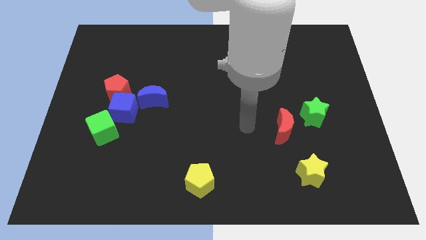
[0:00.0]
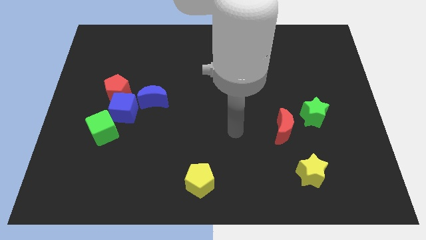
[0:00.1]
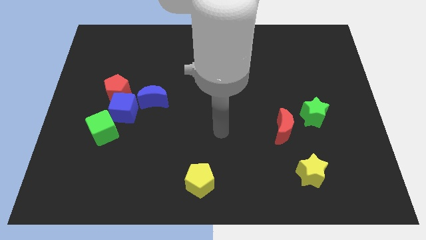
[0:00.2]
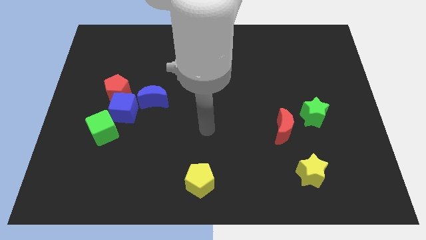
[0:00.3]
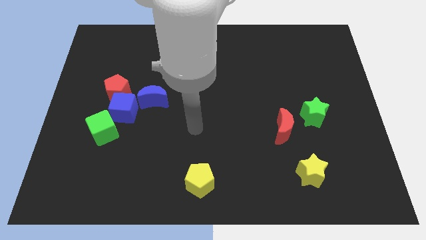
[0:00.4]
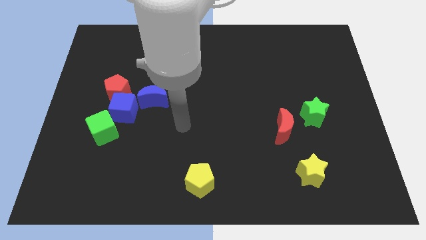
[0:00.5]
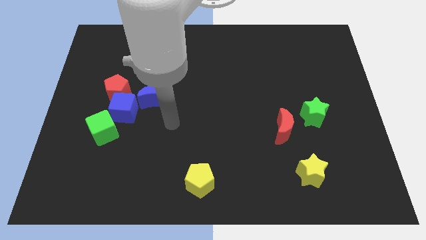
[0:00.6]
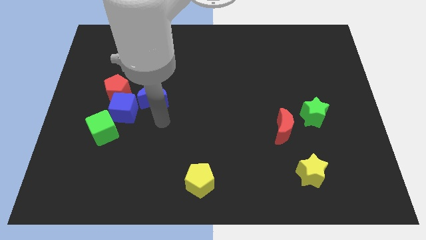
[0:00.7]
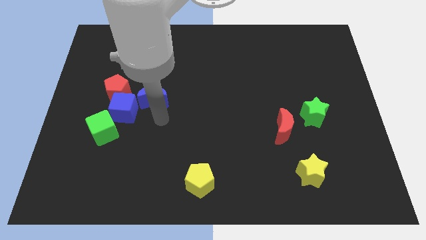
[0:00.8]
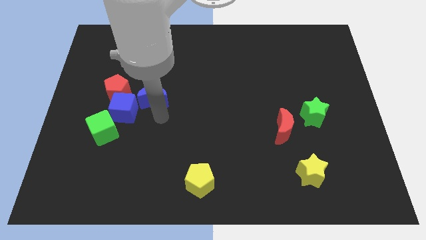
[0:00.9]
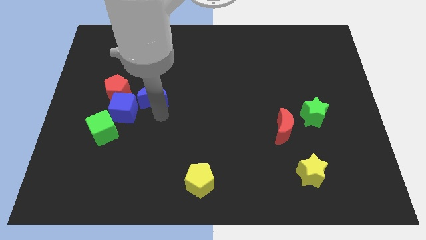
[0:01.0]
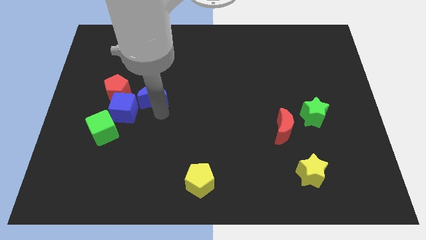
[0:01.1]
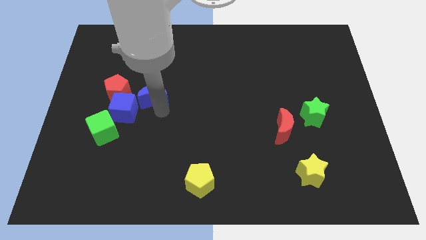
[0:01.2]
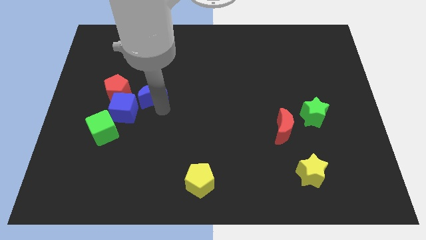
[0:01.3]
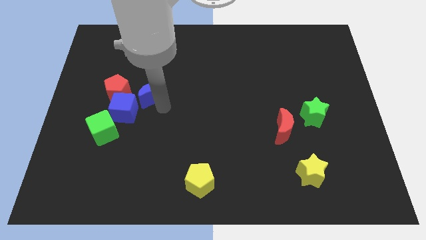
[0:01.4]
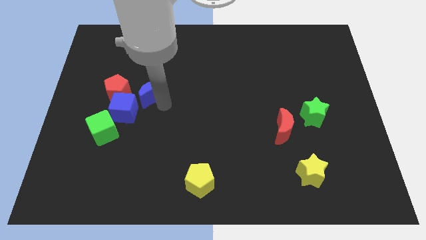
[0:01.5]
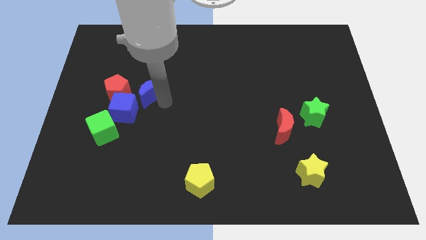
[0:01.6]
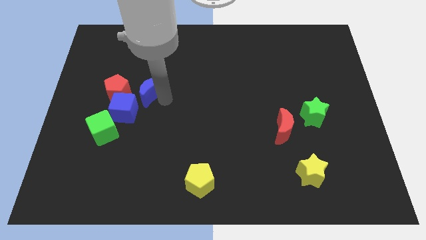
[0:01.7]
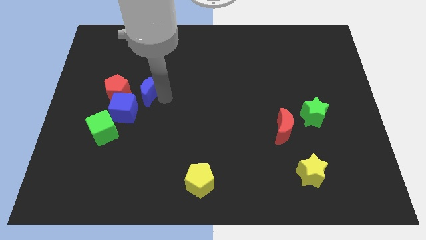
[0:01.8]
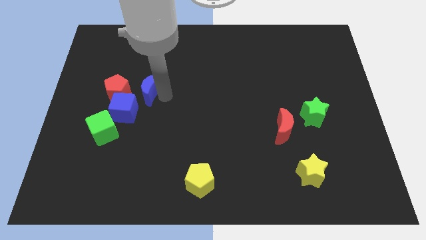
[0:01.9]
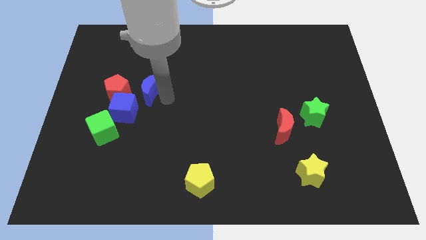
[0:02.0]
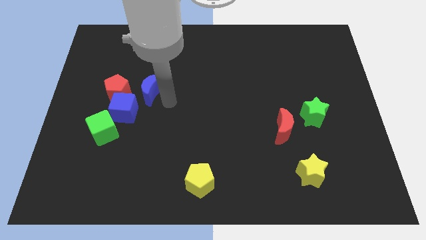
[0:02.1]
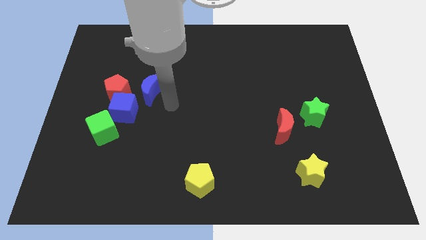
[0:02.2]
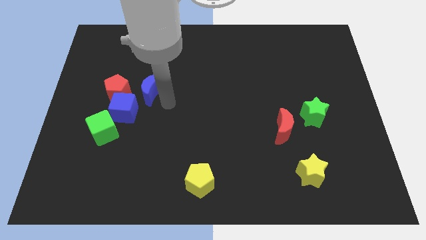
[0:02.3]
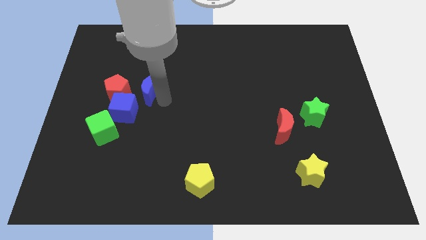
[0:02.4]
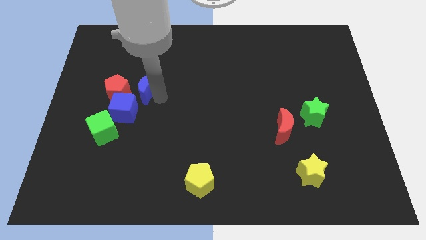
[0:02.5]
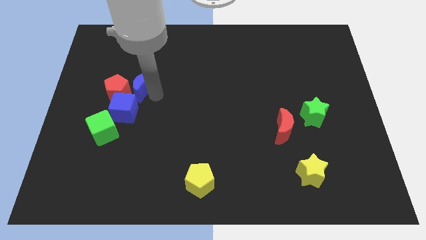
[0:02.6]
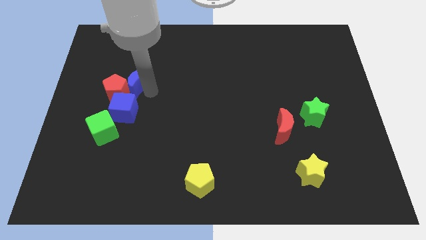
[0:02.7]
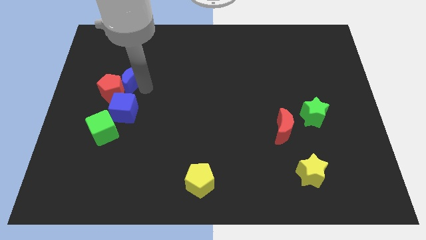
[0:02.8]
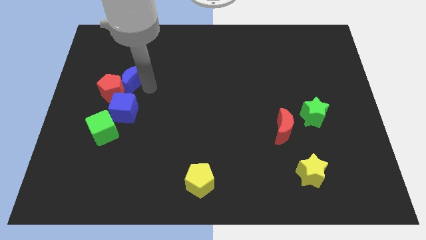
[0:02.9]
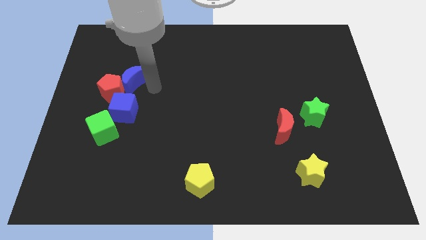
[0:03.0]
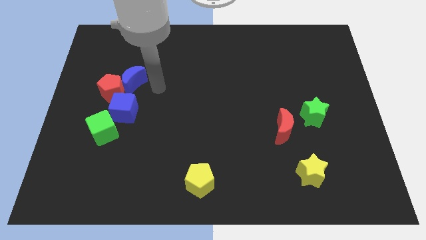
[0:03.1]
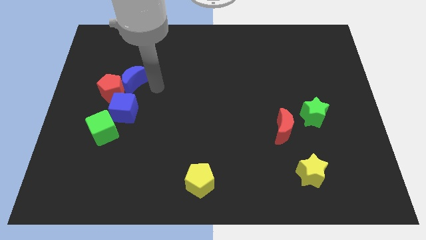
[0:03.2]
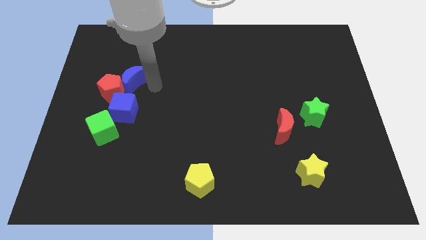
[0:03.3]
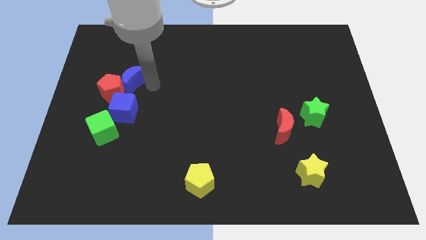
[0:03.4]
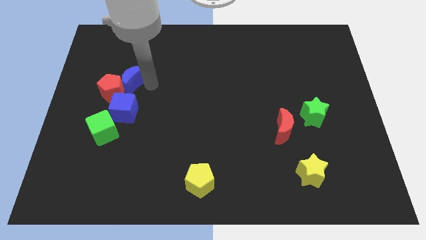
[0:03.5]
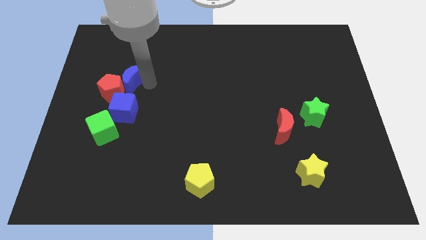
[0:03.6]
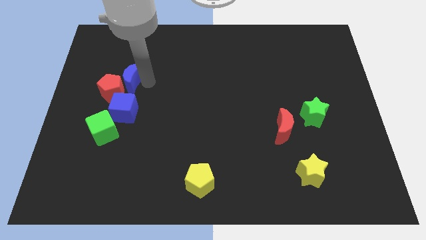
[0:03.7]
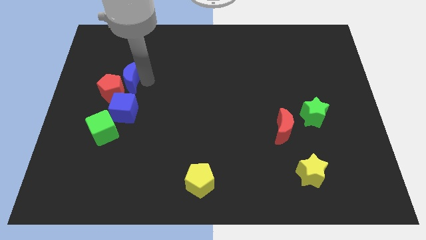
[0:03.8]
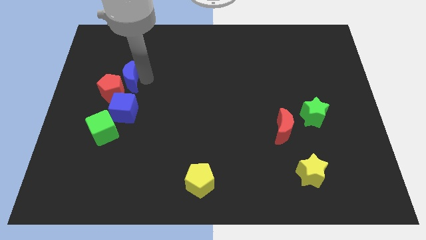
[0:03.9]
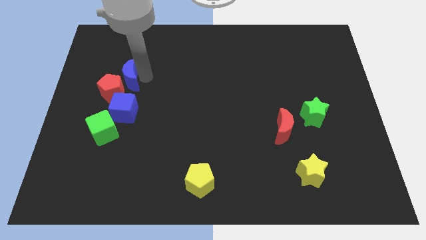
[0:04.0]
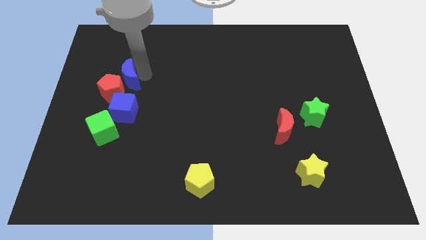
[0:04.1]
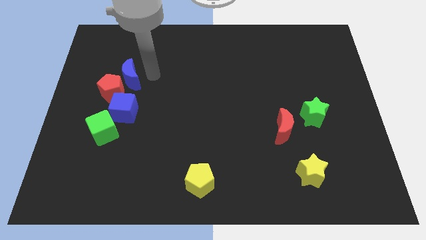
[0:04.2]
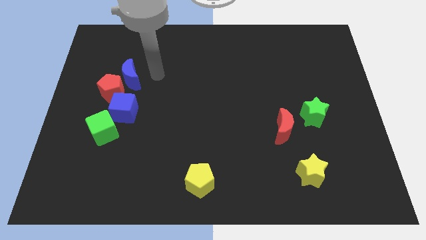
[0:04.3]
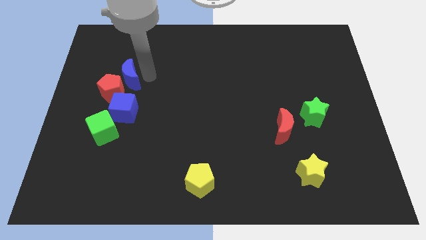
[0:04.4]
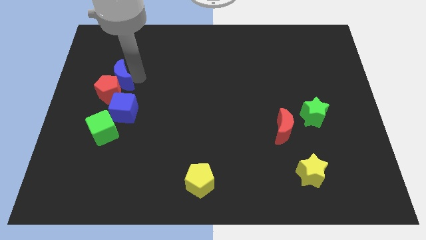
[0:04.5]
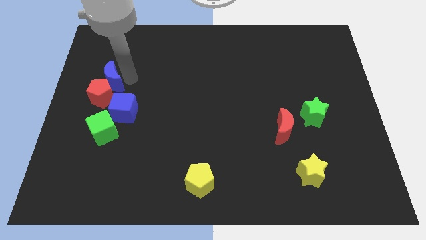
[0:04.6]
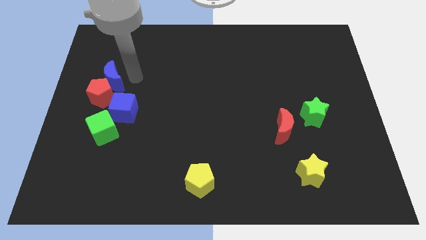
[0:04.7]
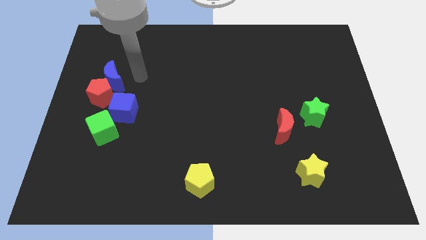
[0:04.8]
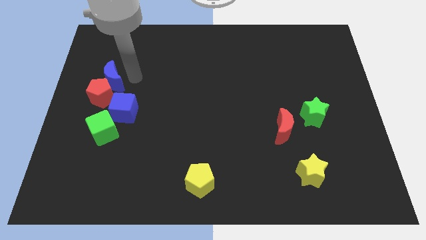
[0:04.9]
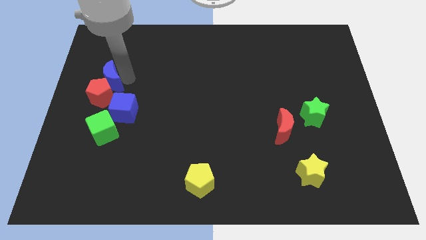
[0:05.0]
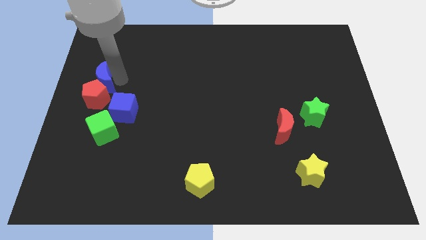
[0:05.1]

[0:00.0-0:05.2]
push the blue moon to the left side

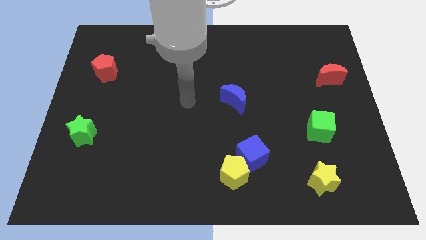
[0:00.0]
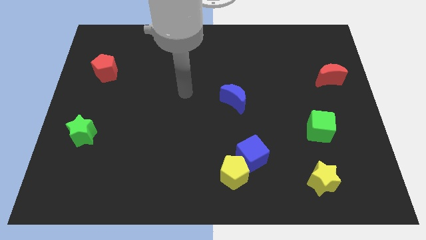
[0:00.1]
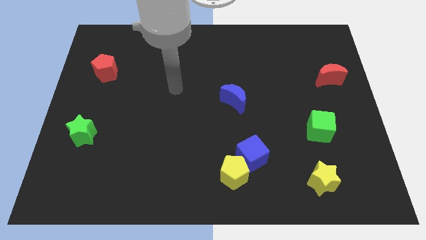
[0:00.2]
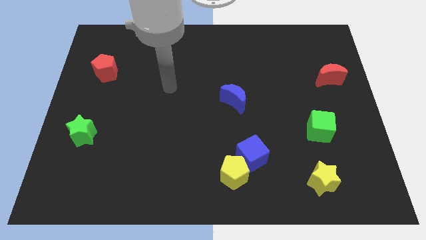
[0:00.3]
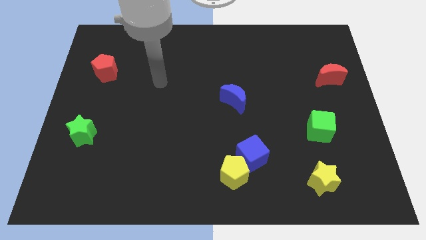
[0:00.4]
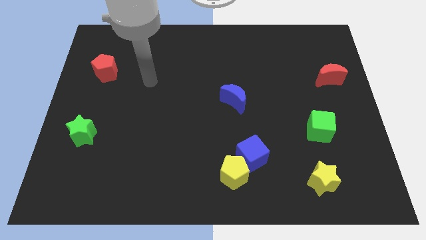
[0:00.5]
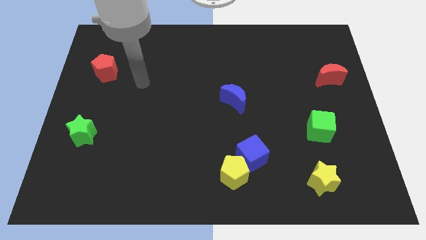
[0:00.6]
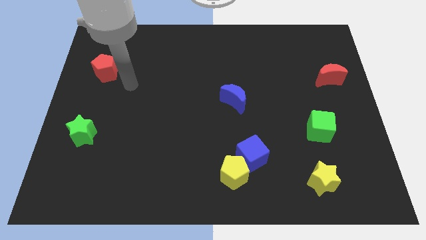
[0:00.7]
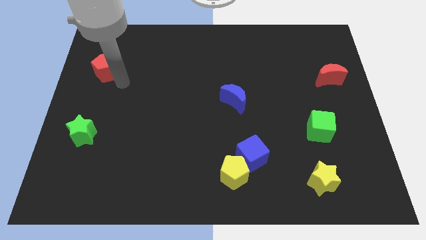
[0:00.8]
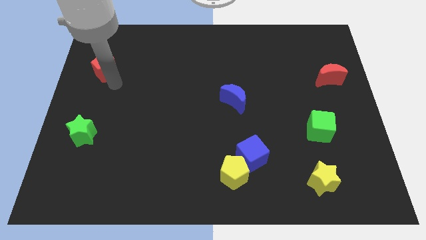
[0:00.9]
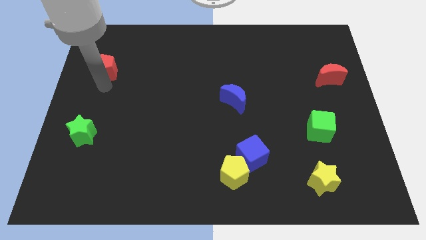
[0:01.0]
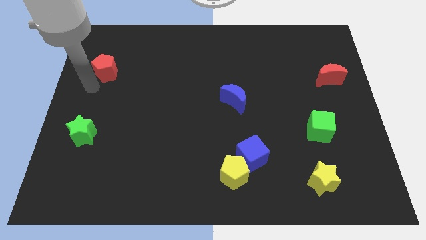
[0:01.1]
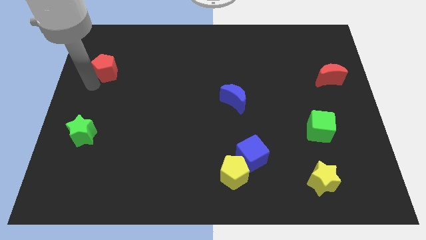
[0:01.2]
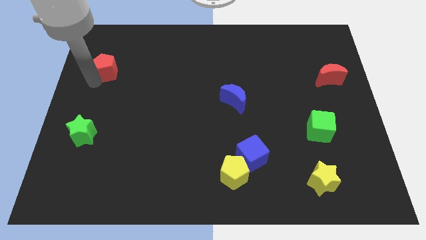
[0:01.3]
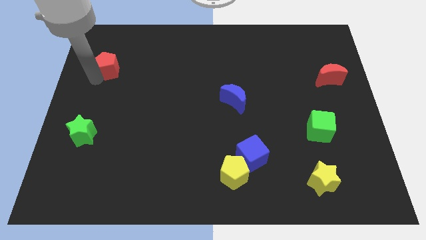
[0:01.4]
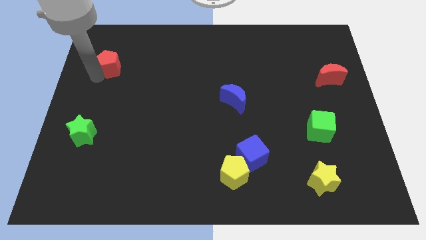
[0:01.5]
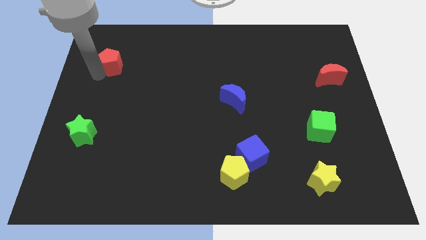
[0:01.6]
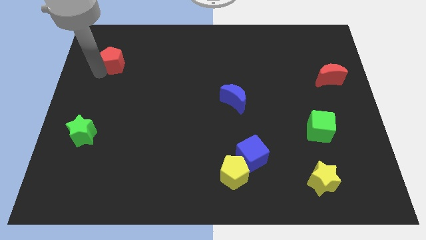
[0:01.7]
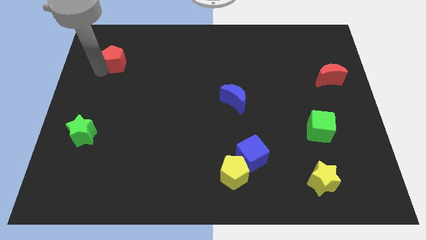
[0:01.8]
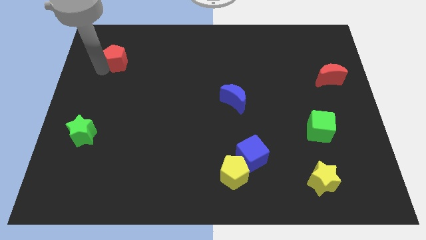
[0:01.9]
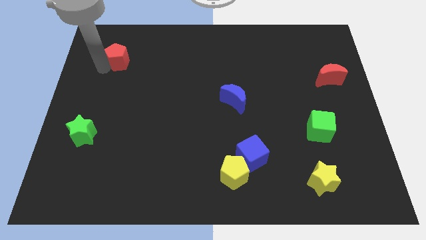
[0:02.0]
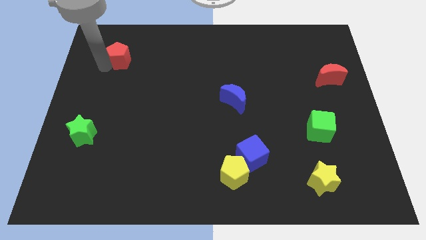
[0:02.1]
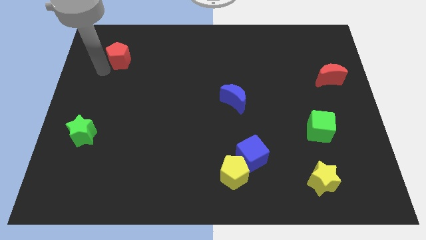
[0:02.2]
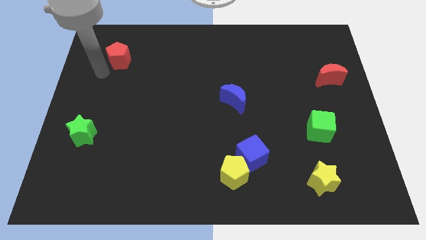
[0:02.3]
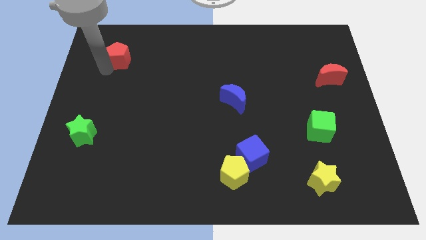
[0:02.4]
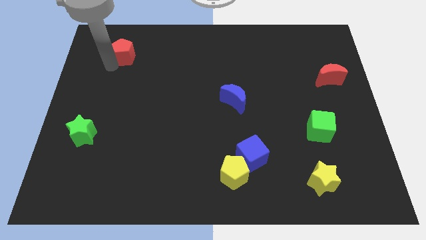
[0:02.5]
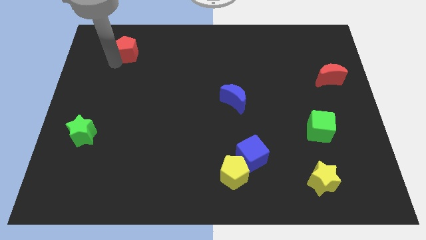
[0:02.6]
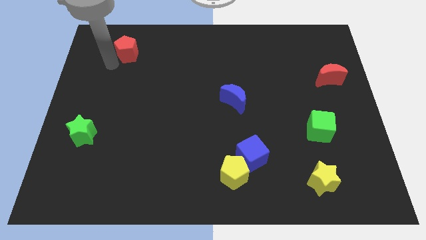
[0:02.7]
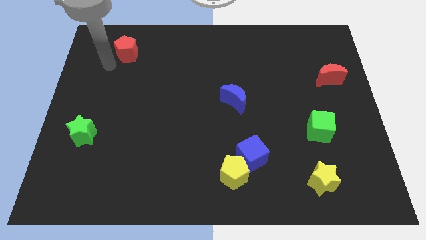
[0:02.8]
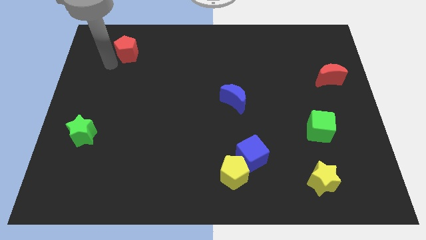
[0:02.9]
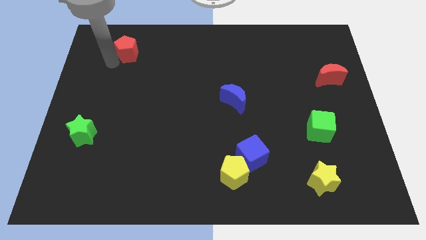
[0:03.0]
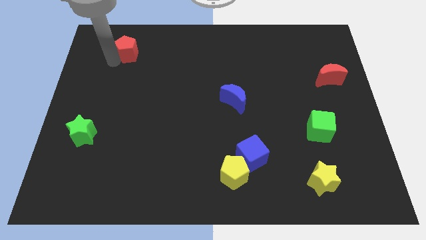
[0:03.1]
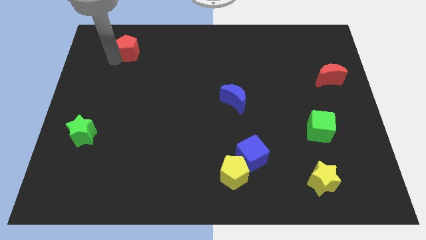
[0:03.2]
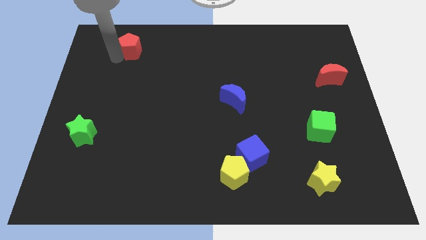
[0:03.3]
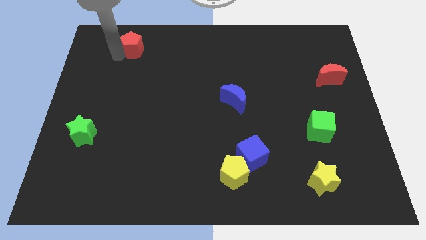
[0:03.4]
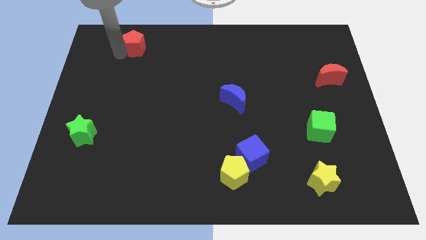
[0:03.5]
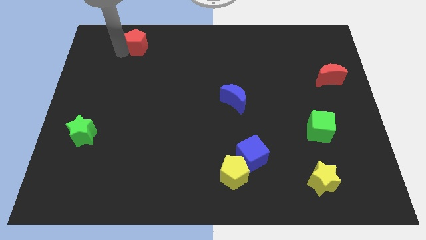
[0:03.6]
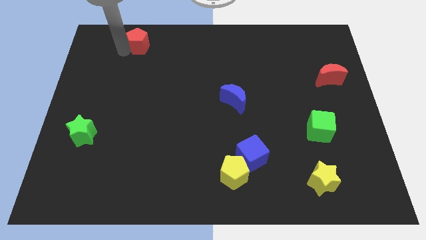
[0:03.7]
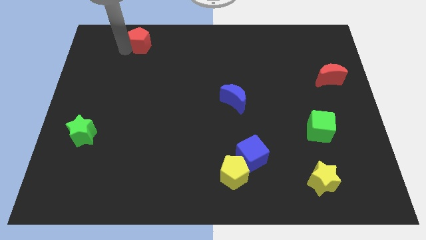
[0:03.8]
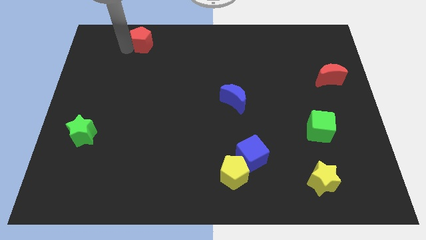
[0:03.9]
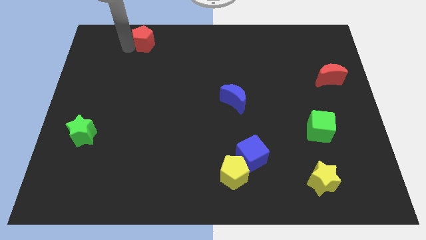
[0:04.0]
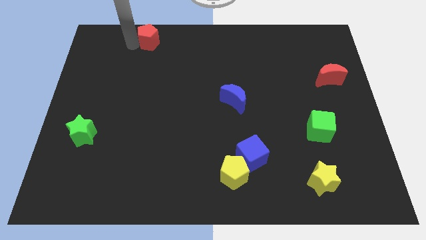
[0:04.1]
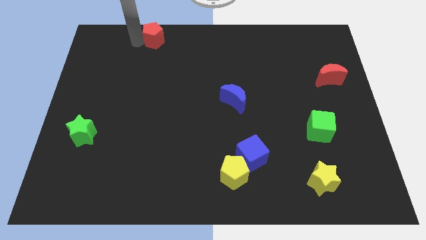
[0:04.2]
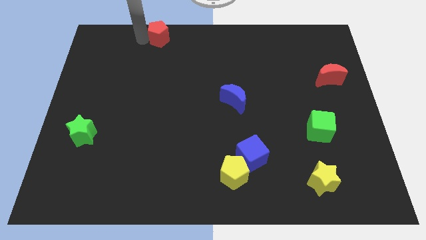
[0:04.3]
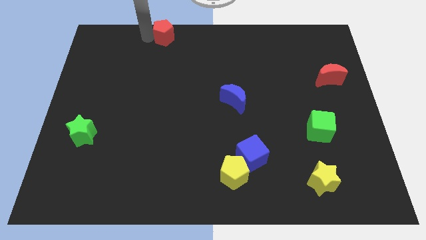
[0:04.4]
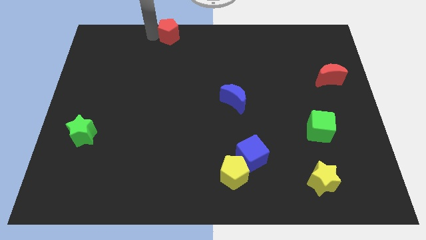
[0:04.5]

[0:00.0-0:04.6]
move the red pentagon to the top side
